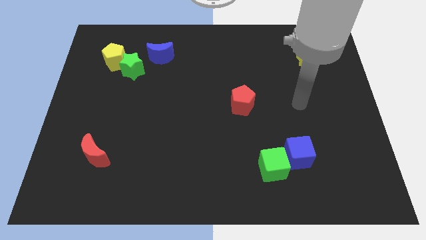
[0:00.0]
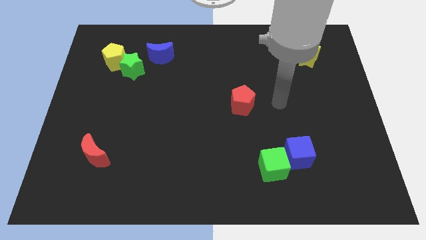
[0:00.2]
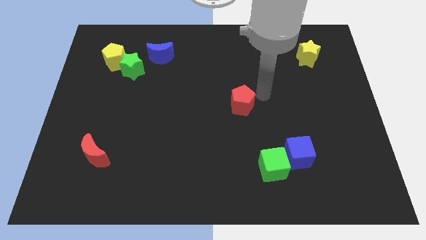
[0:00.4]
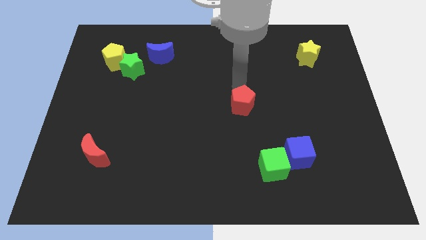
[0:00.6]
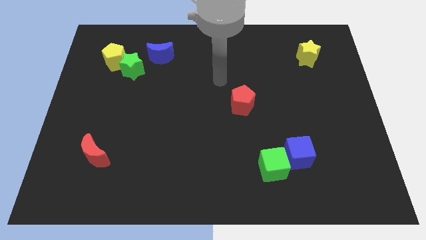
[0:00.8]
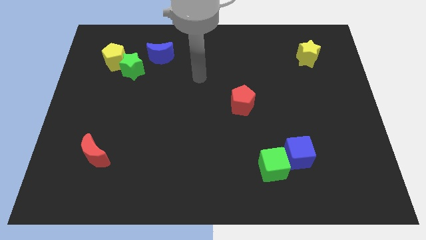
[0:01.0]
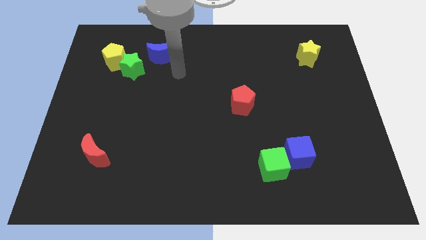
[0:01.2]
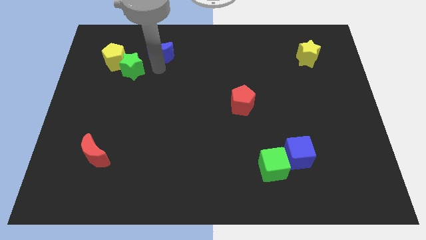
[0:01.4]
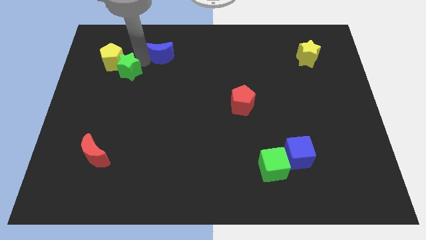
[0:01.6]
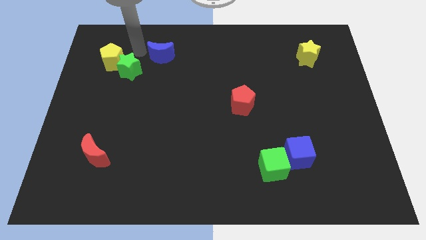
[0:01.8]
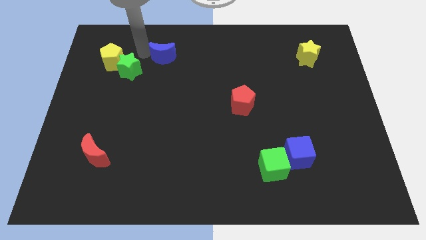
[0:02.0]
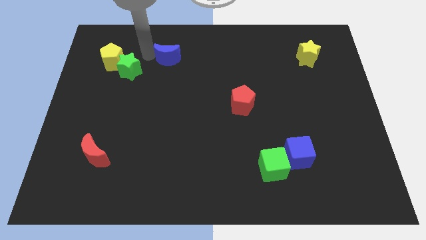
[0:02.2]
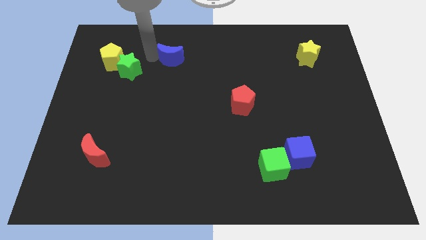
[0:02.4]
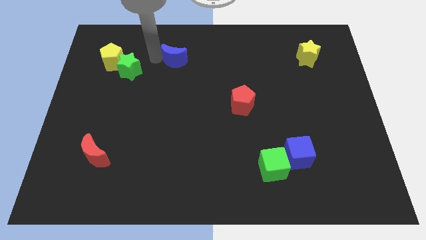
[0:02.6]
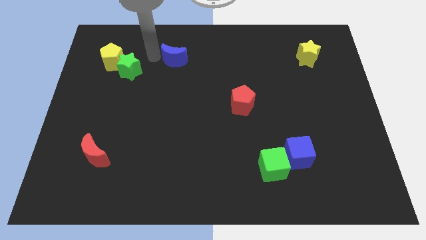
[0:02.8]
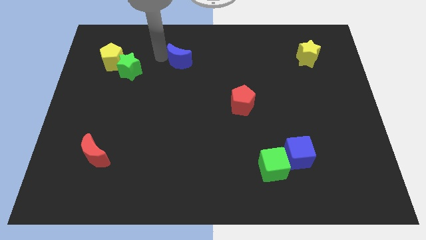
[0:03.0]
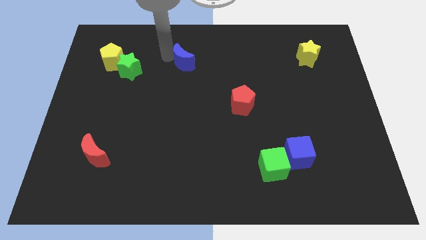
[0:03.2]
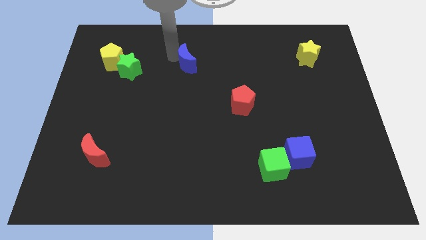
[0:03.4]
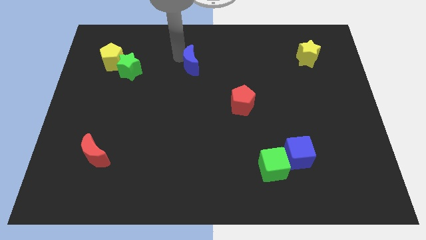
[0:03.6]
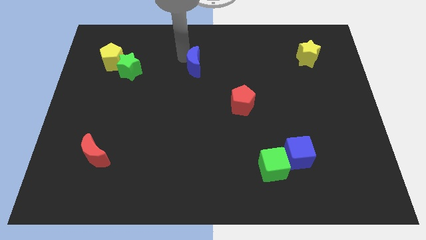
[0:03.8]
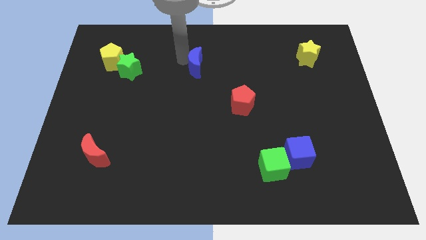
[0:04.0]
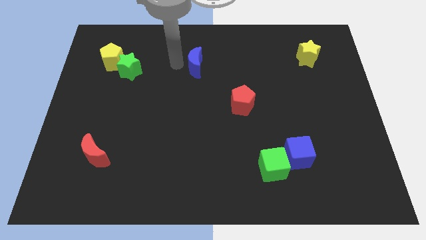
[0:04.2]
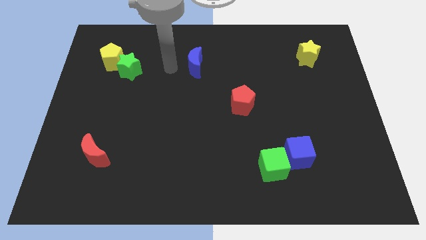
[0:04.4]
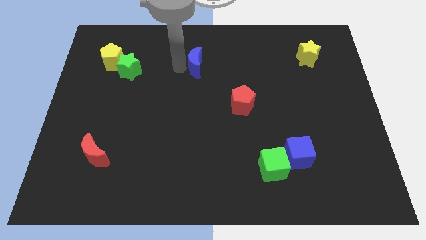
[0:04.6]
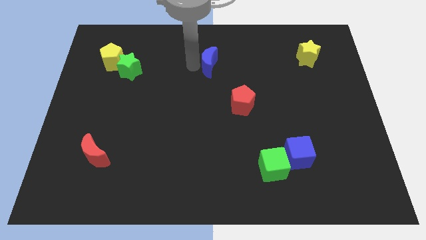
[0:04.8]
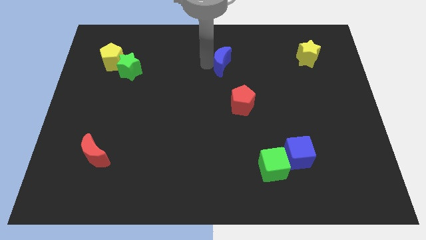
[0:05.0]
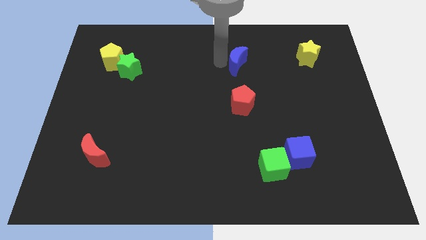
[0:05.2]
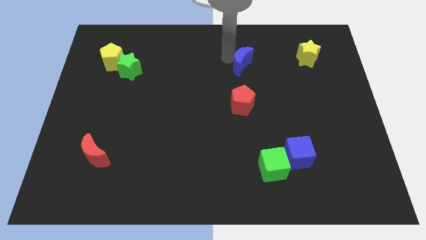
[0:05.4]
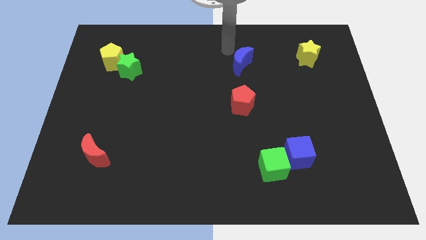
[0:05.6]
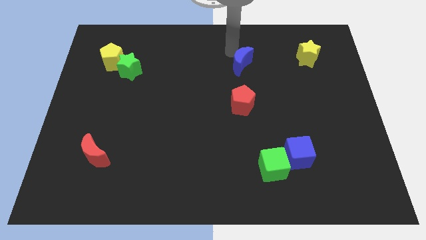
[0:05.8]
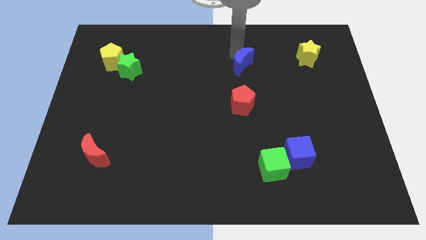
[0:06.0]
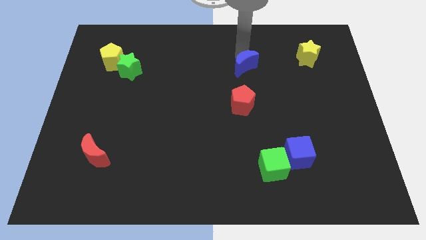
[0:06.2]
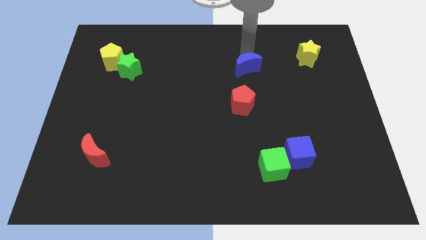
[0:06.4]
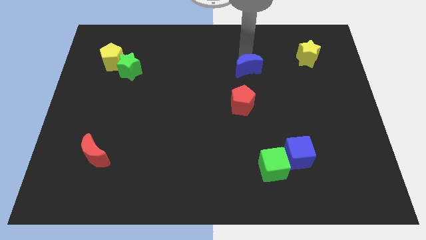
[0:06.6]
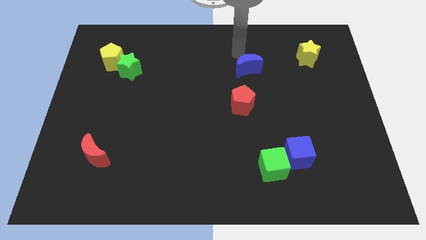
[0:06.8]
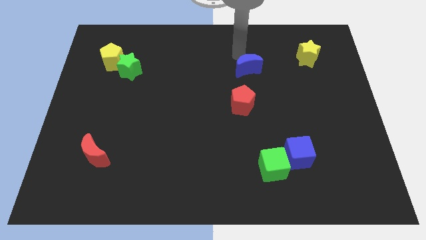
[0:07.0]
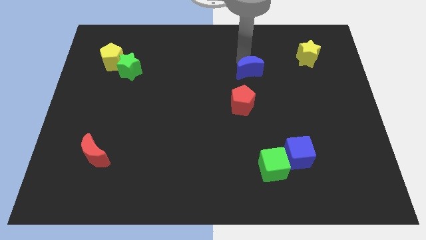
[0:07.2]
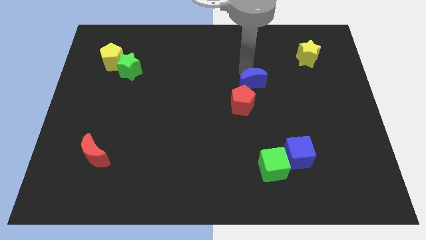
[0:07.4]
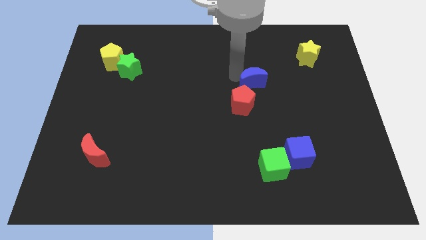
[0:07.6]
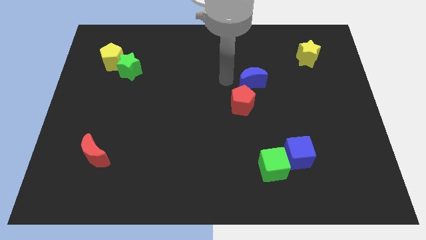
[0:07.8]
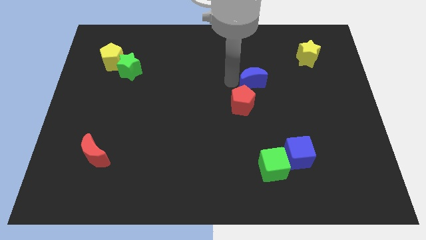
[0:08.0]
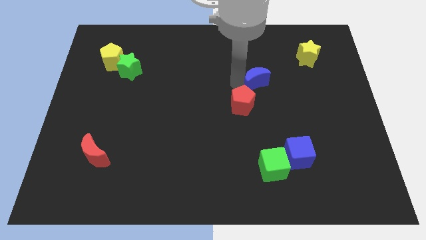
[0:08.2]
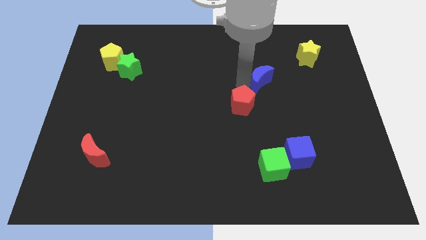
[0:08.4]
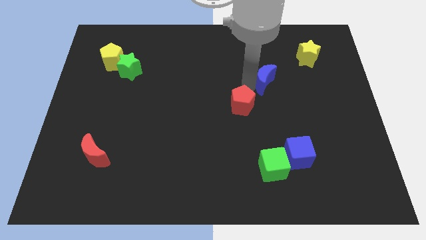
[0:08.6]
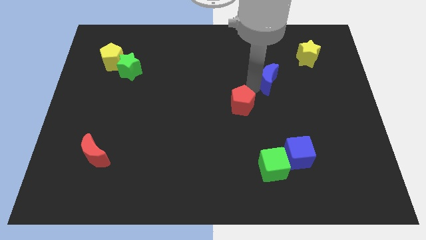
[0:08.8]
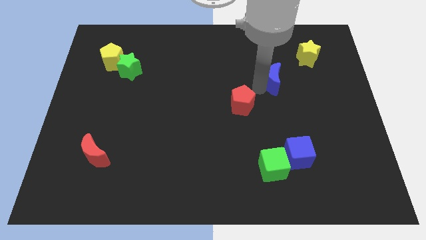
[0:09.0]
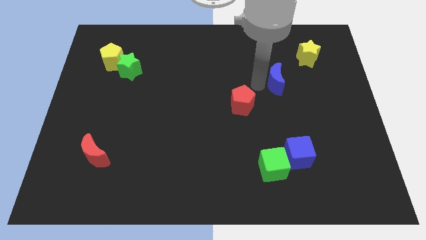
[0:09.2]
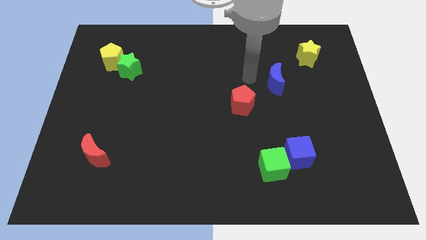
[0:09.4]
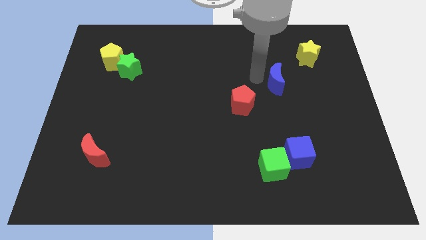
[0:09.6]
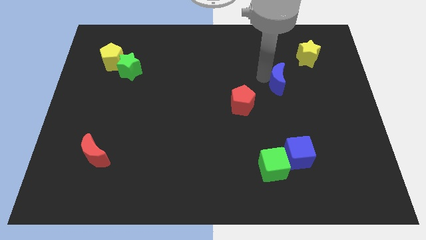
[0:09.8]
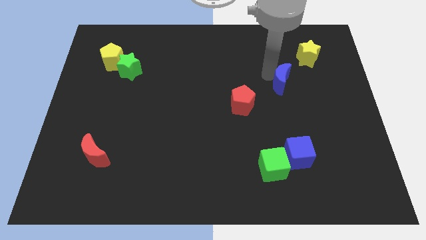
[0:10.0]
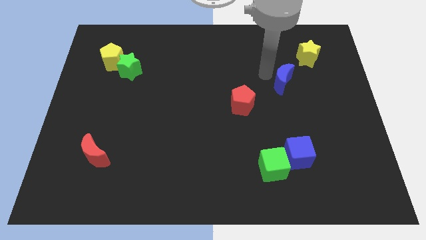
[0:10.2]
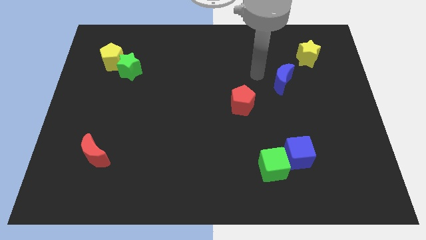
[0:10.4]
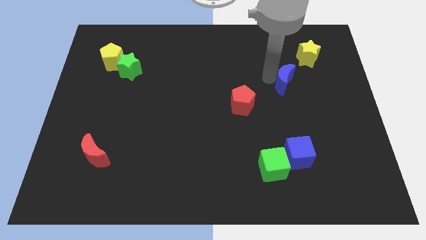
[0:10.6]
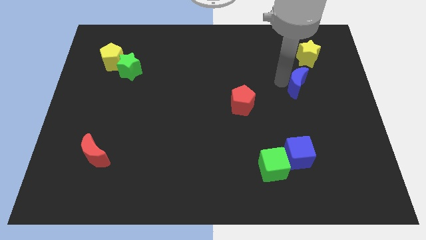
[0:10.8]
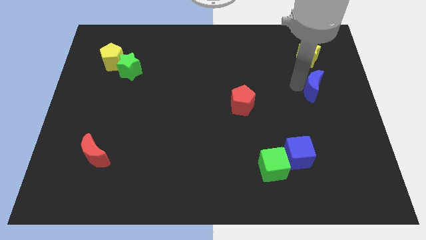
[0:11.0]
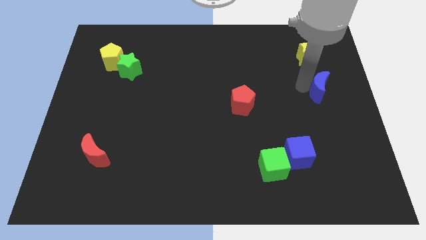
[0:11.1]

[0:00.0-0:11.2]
put the blue moon to the right side
